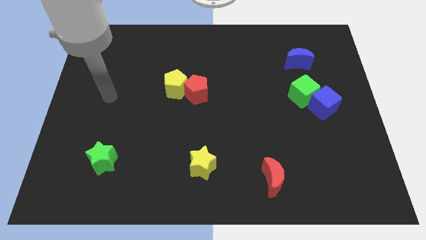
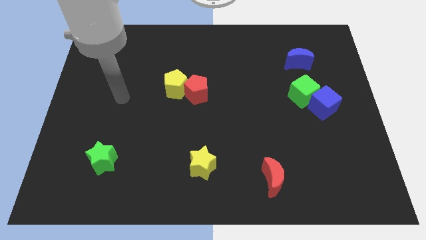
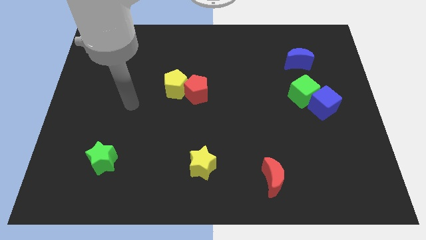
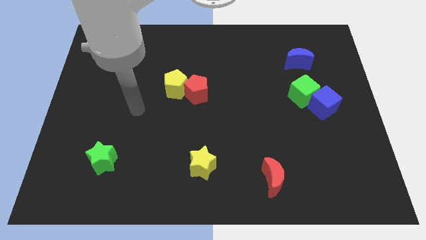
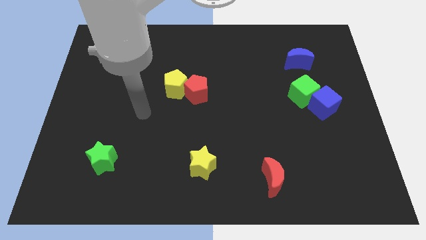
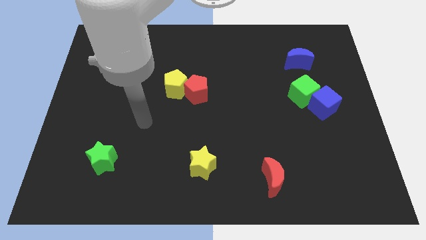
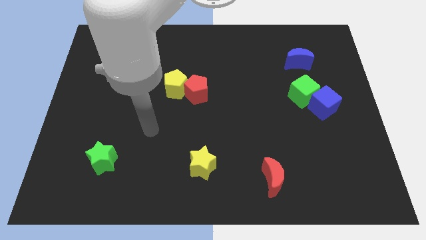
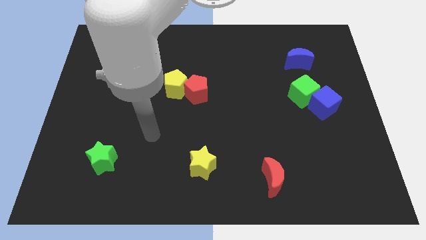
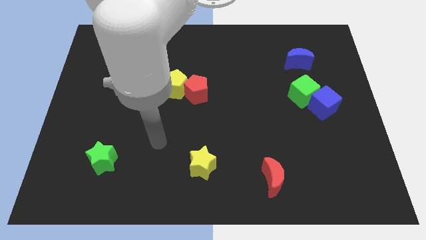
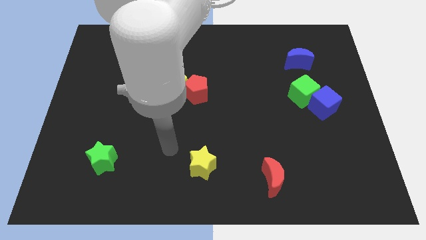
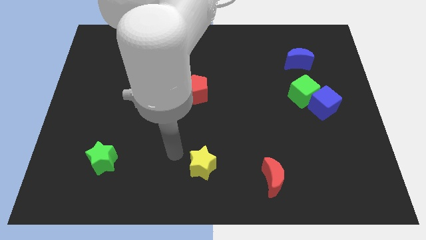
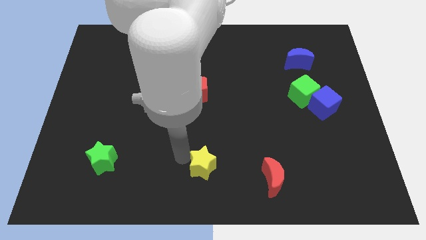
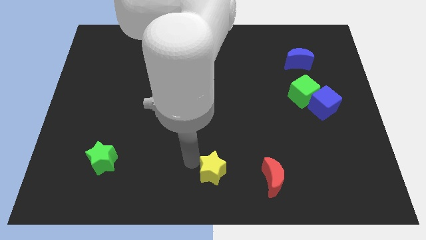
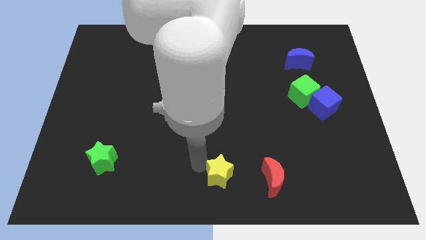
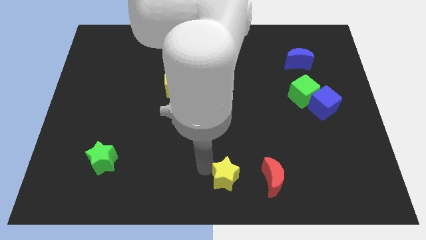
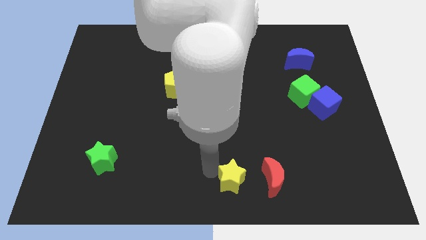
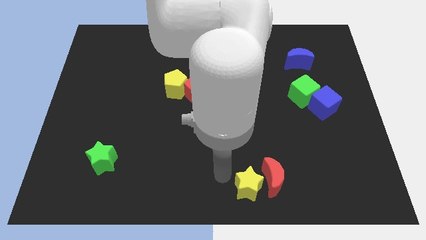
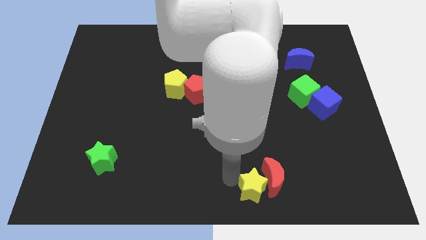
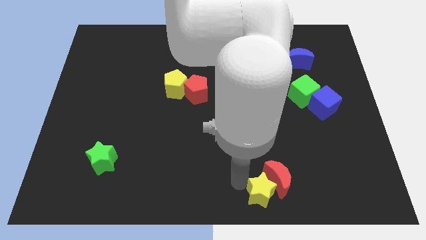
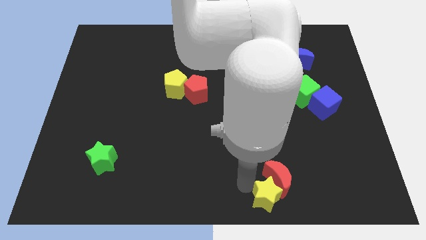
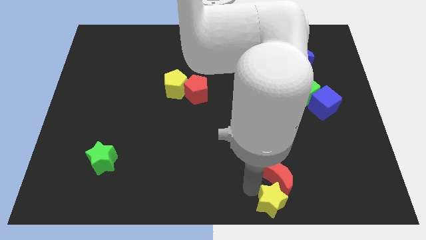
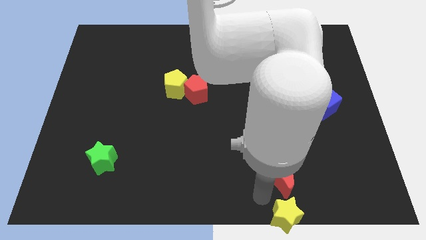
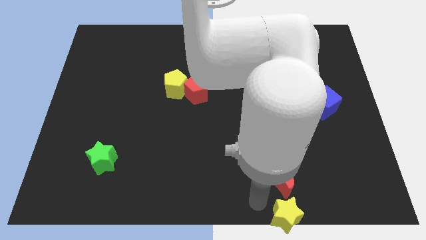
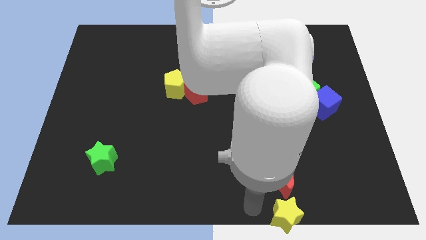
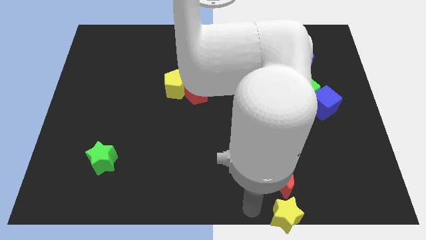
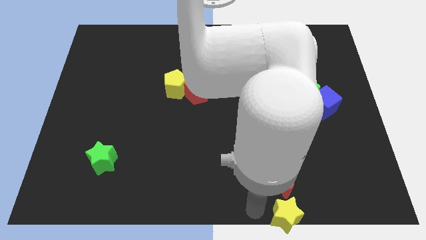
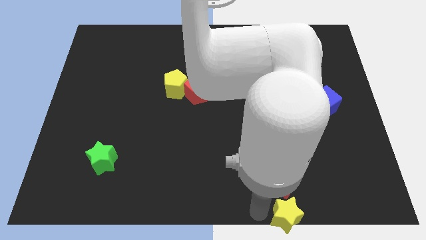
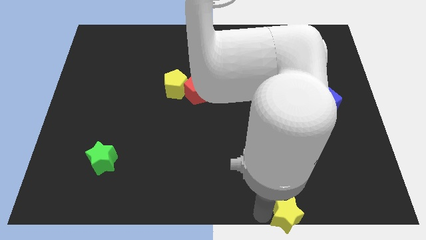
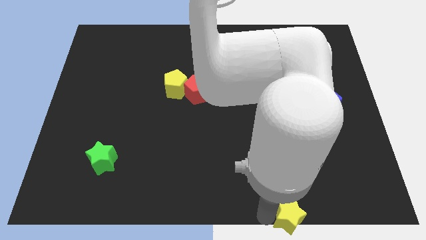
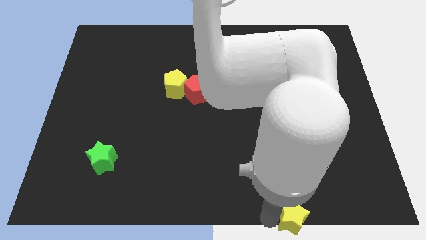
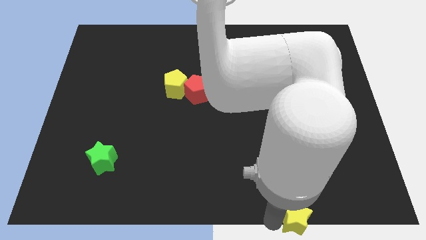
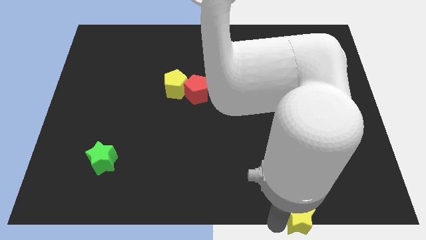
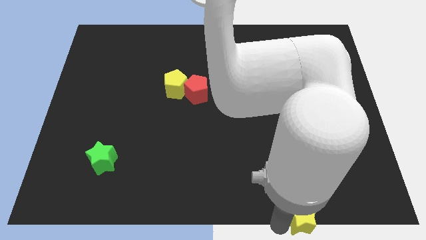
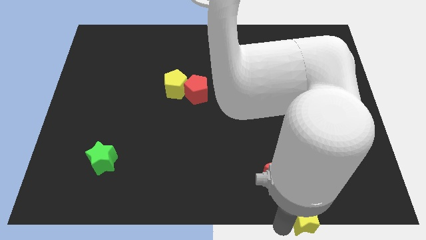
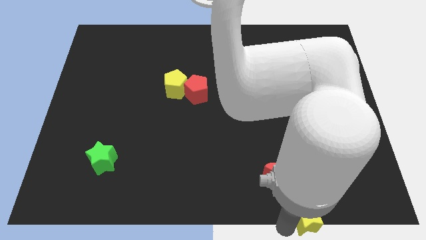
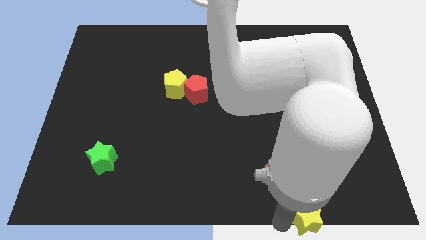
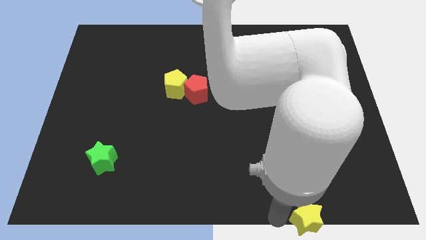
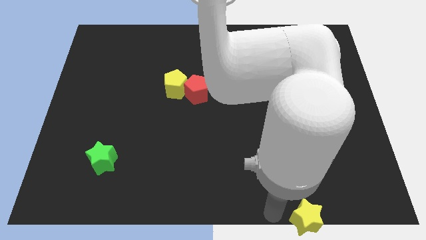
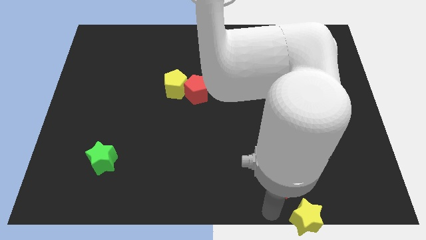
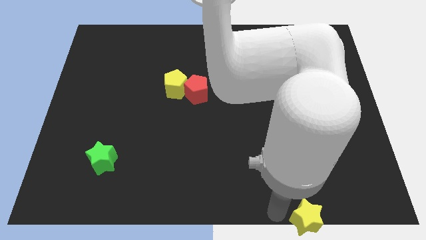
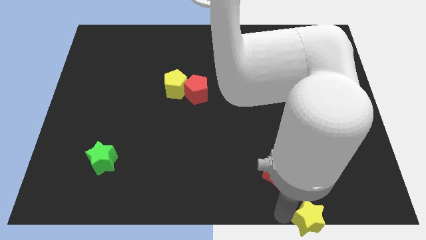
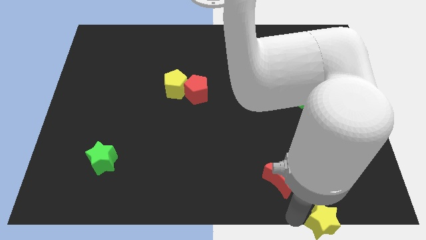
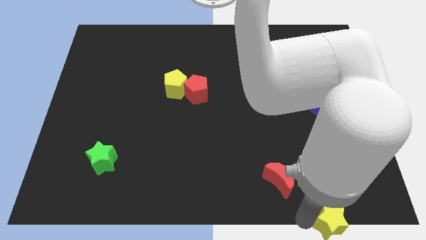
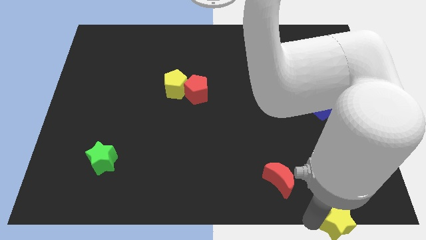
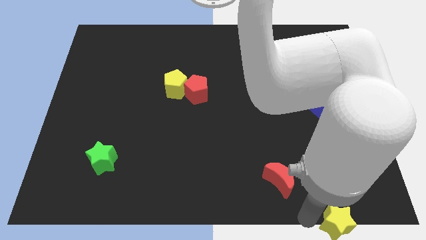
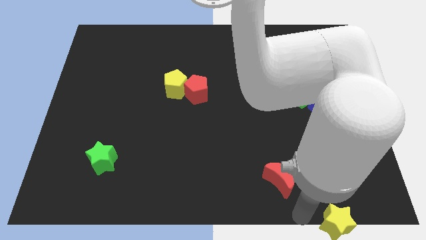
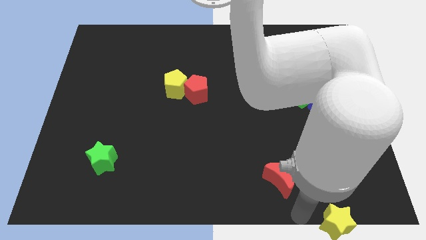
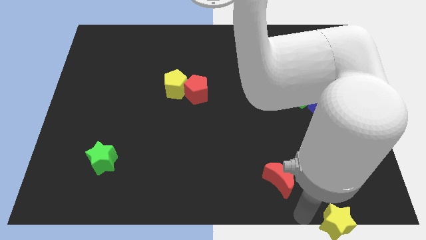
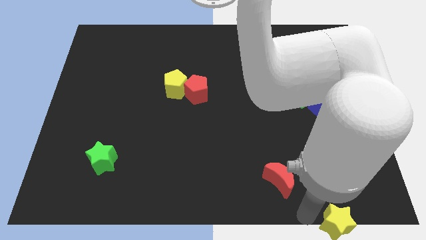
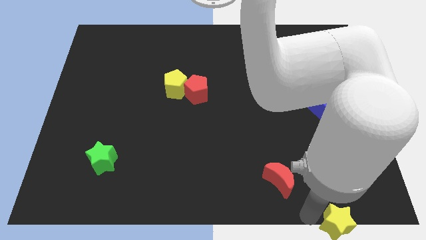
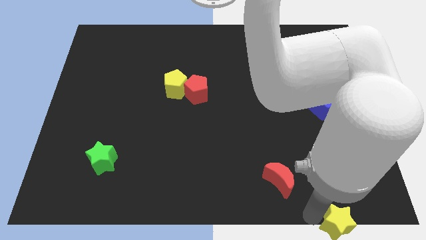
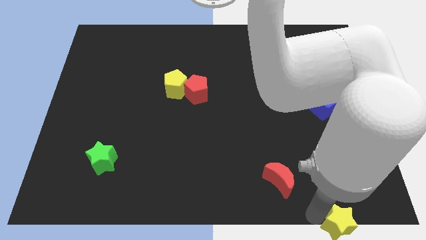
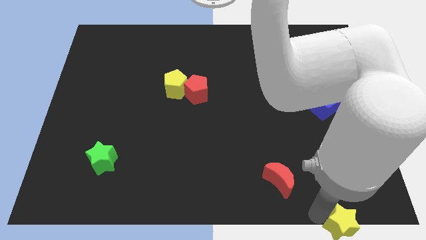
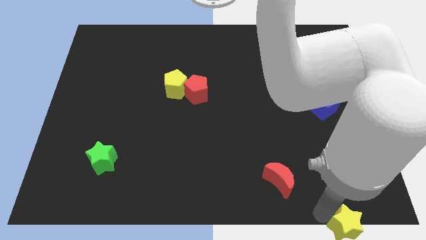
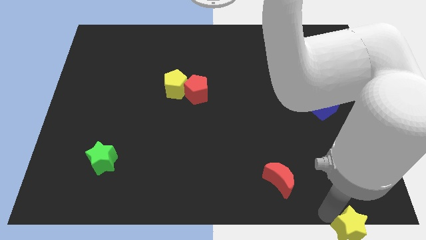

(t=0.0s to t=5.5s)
push the yellow star to the bottom right of the board

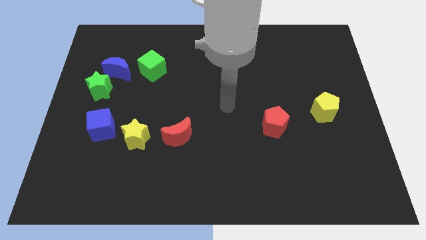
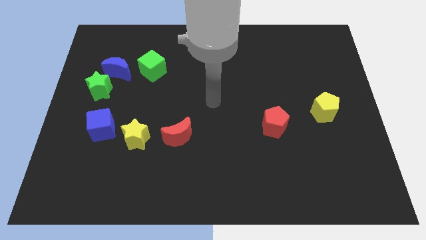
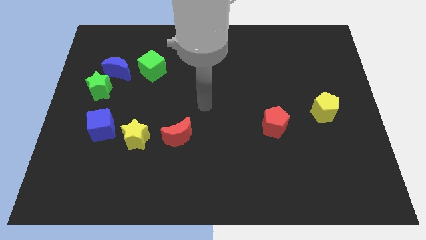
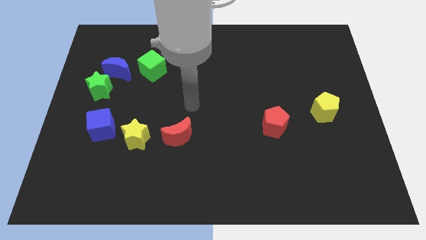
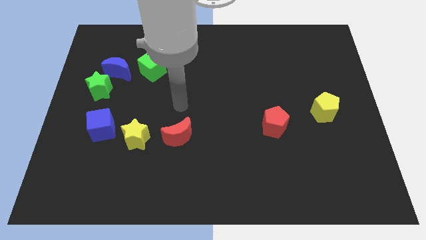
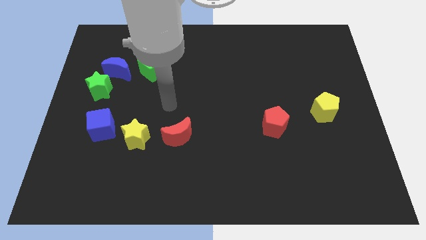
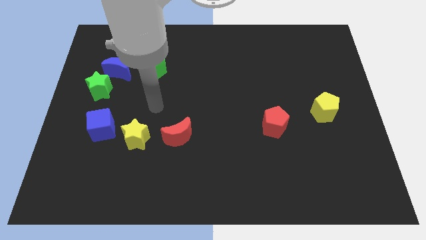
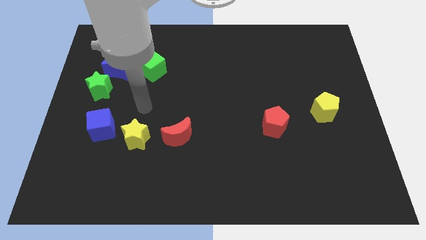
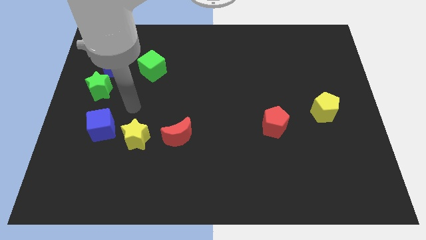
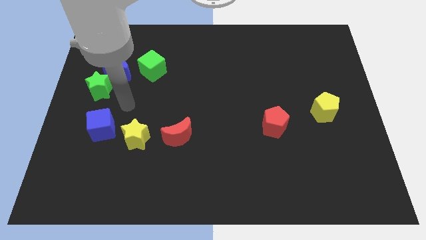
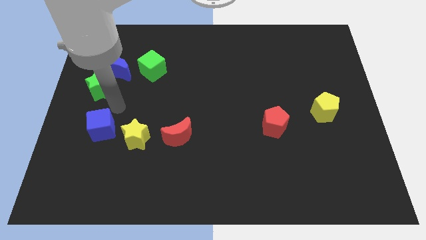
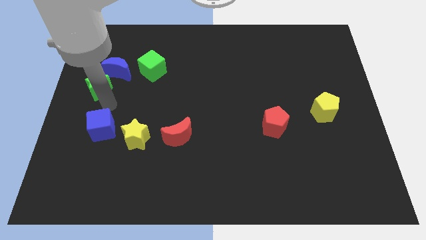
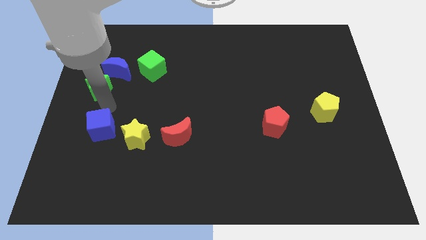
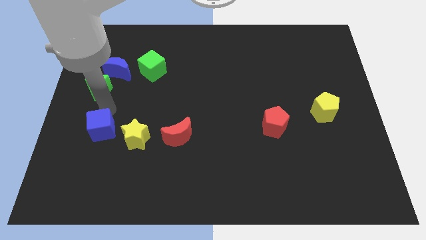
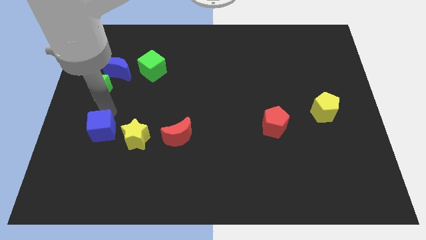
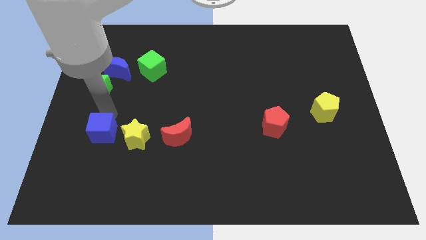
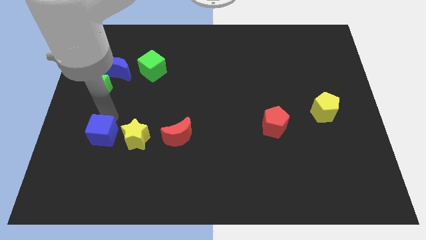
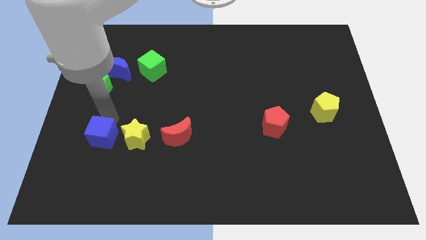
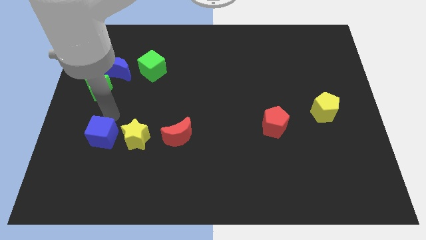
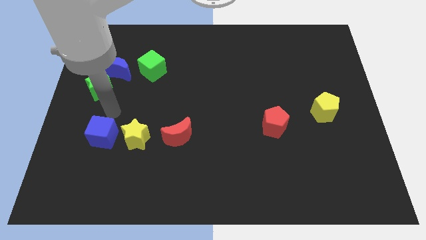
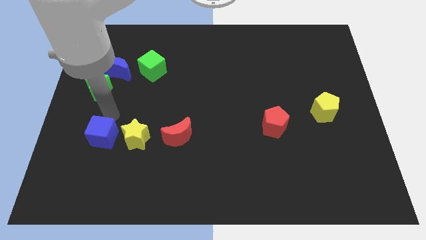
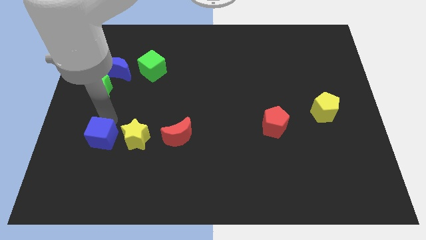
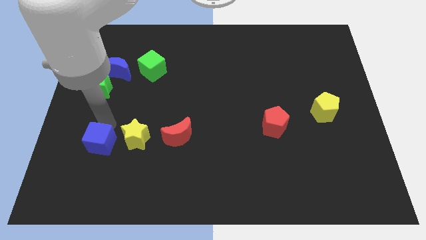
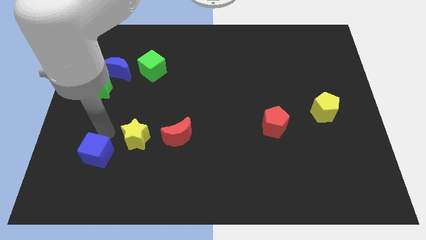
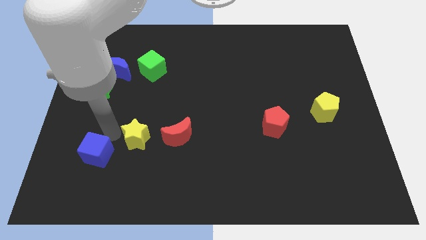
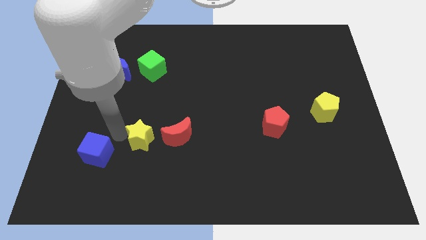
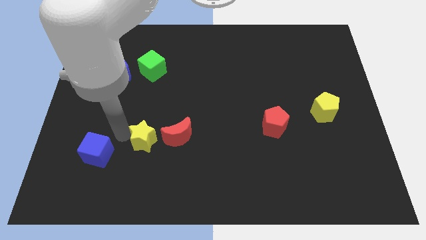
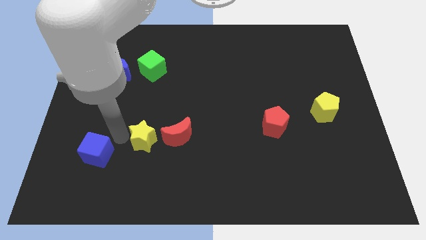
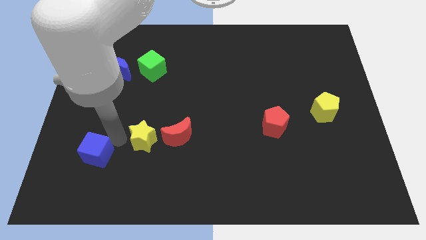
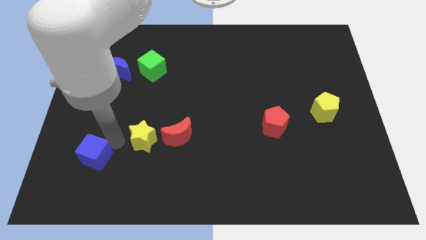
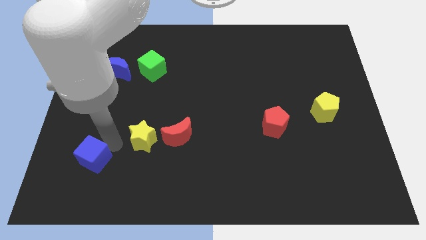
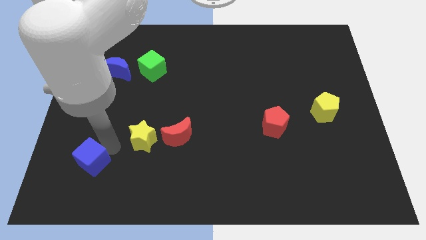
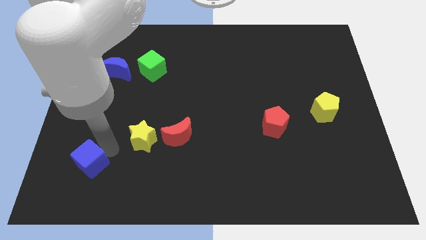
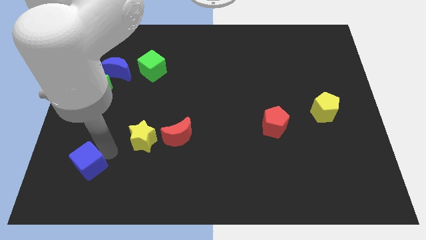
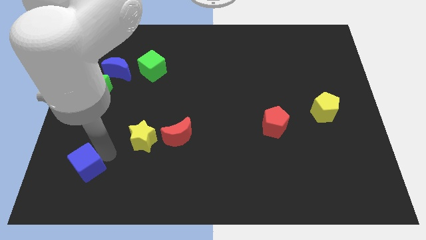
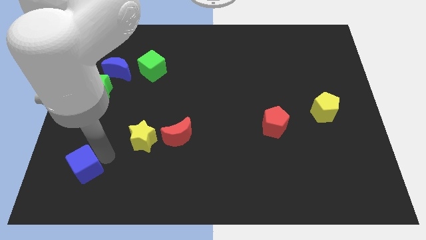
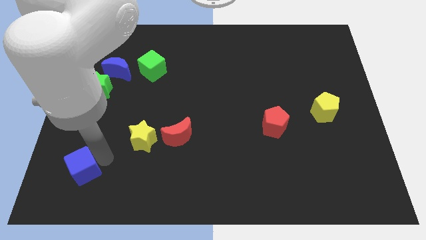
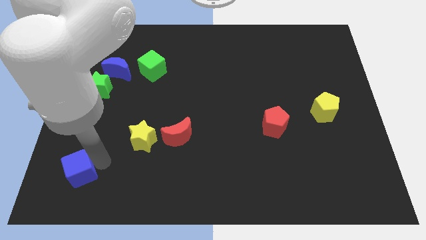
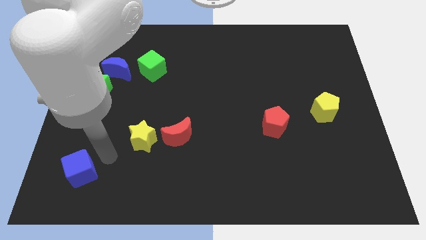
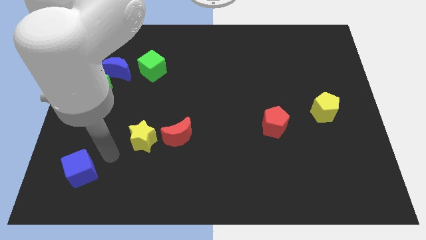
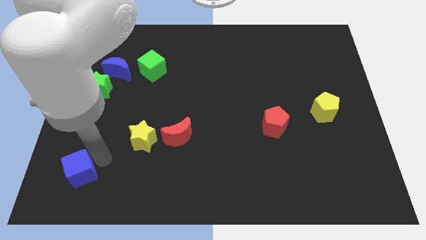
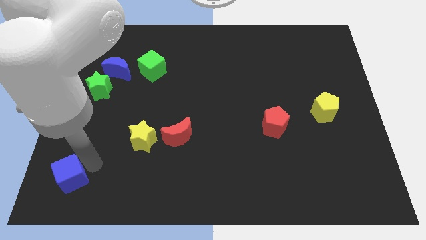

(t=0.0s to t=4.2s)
slide the blue cube to the bottom left of the board
